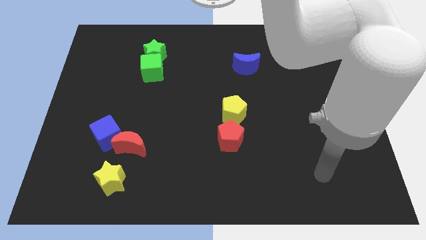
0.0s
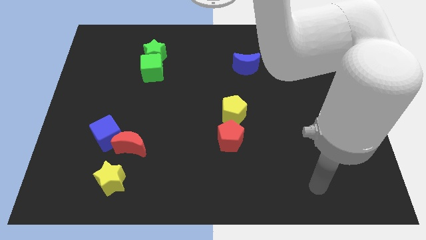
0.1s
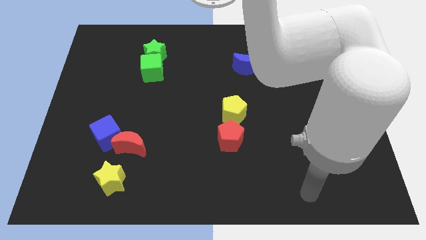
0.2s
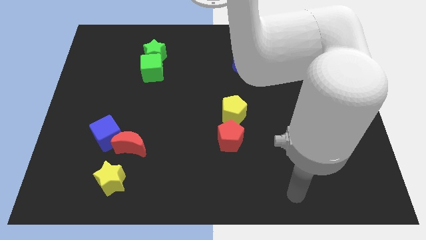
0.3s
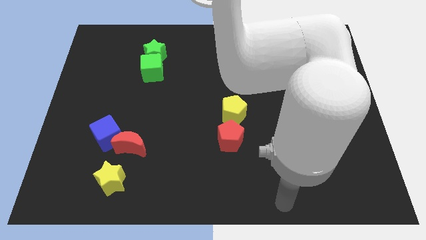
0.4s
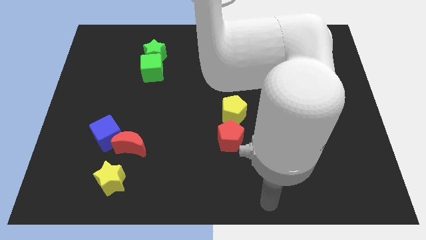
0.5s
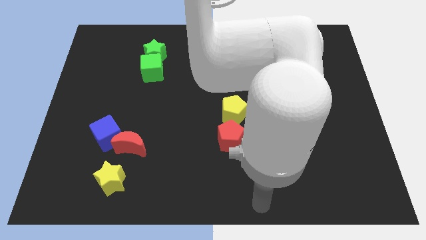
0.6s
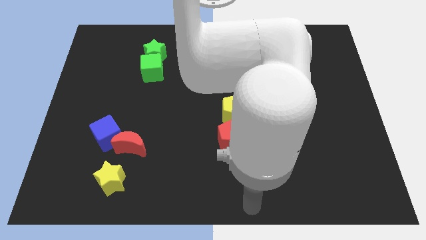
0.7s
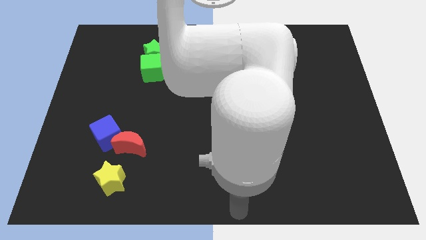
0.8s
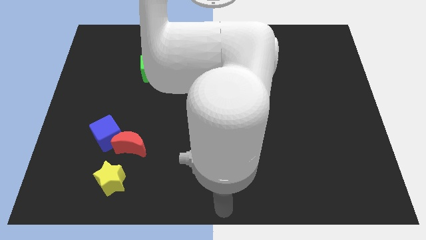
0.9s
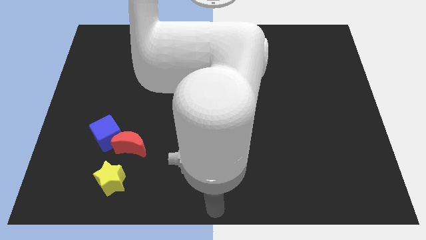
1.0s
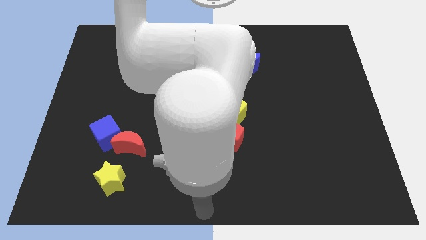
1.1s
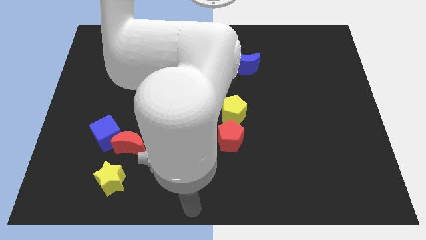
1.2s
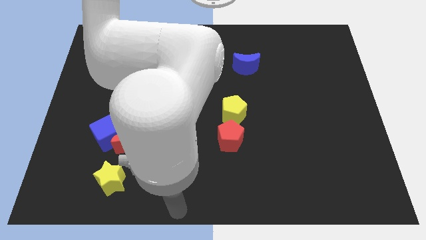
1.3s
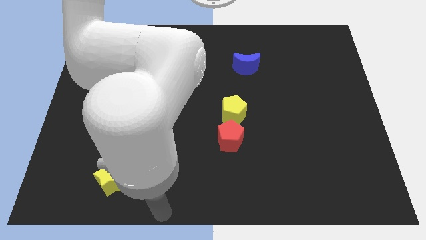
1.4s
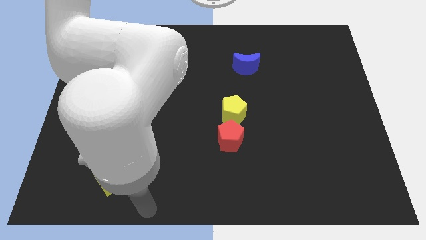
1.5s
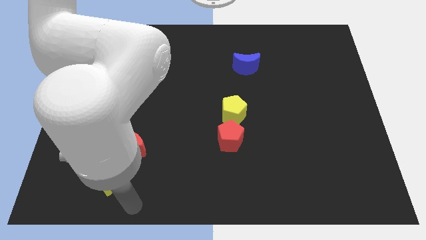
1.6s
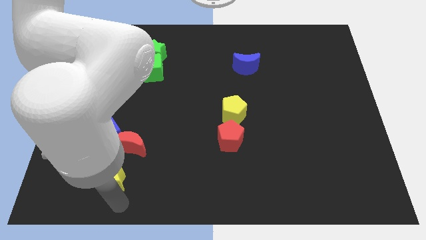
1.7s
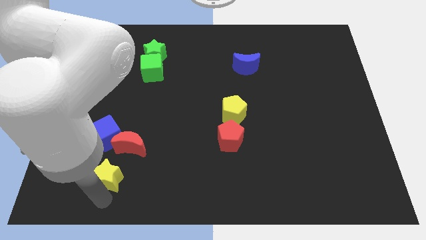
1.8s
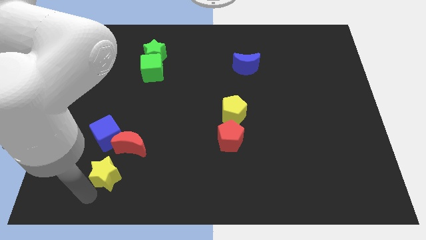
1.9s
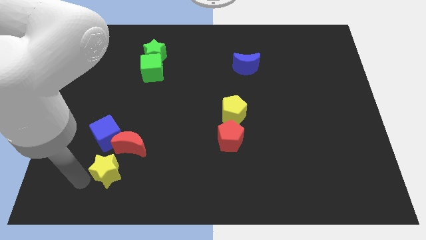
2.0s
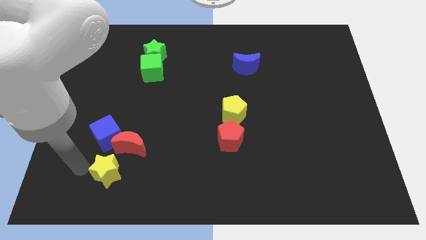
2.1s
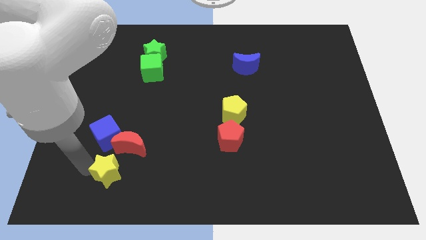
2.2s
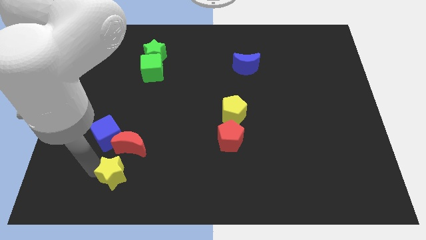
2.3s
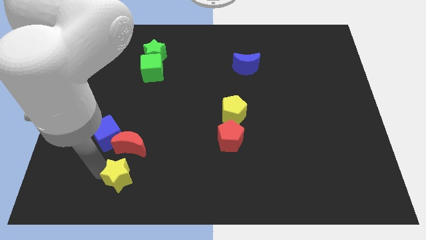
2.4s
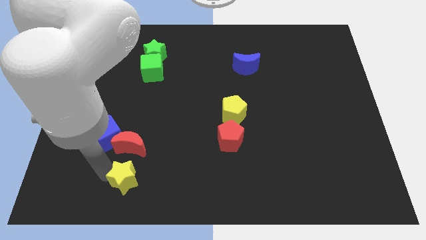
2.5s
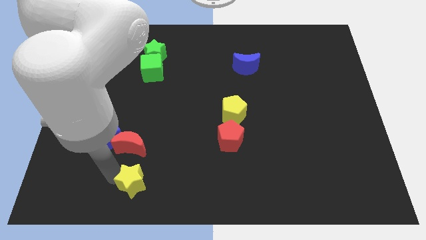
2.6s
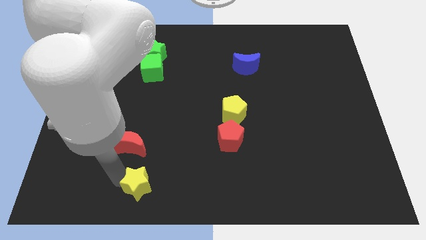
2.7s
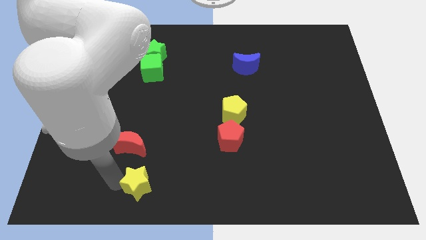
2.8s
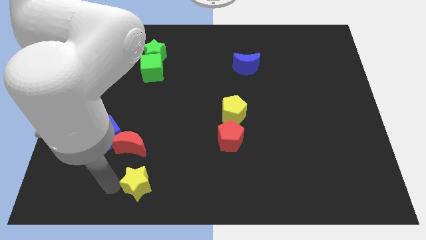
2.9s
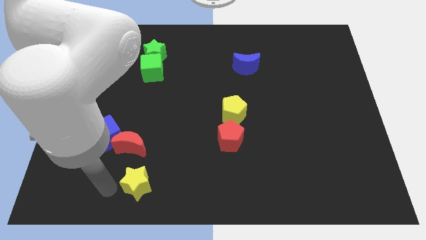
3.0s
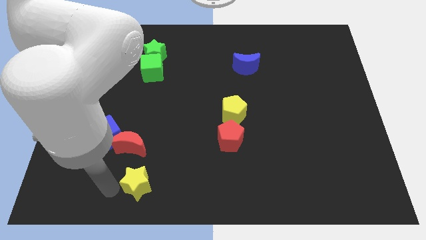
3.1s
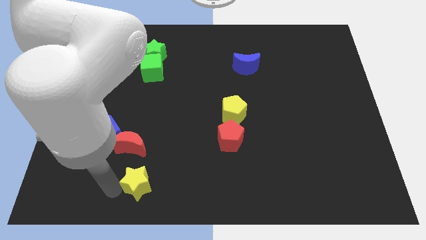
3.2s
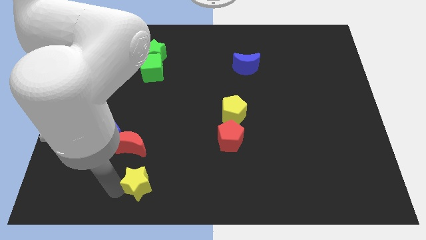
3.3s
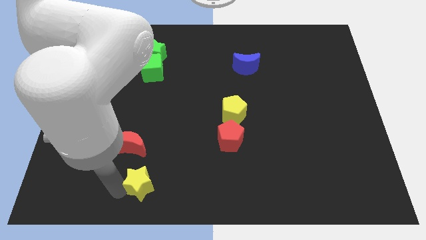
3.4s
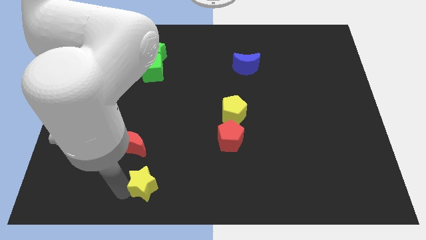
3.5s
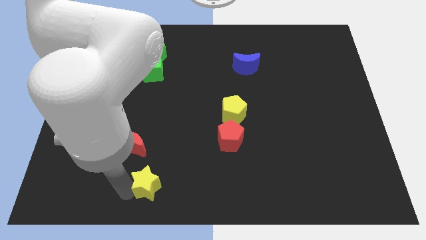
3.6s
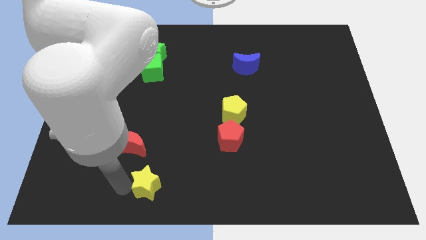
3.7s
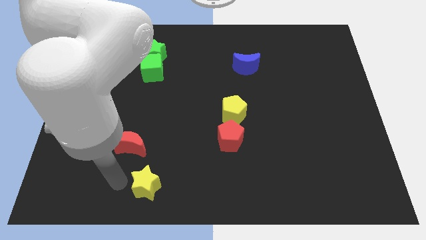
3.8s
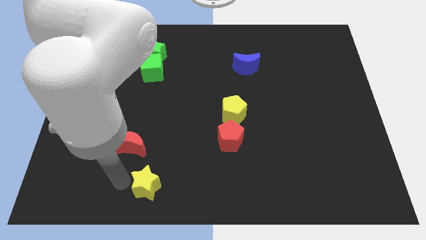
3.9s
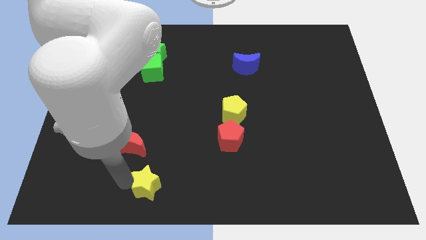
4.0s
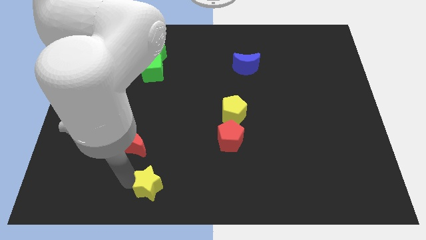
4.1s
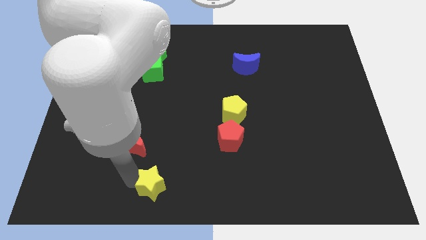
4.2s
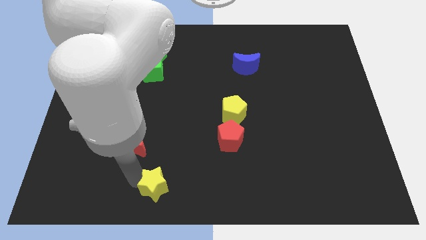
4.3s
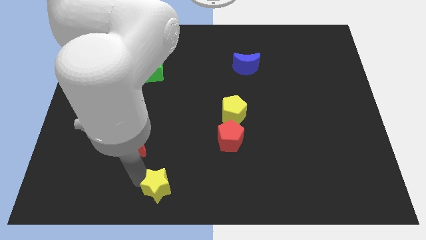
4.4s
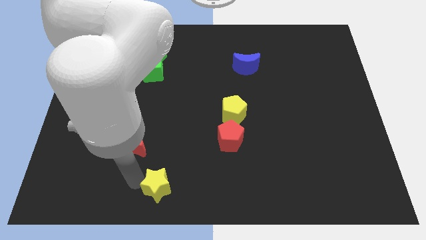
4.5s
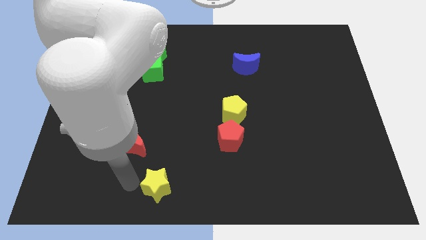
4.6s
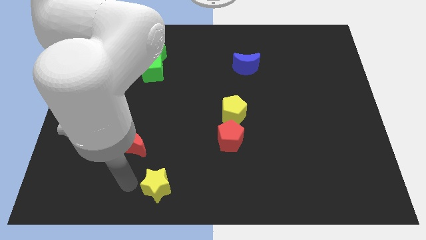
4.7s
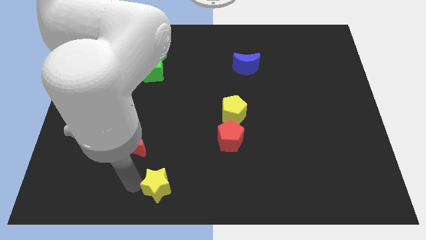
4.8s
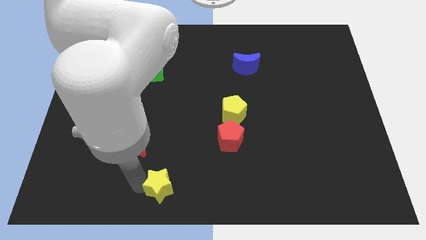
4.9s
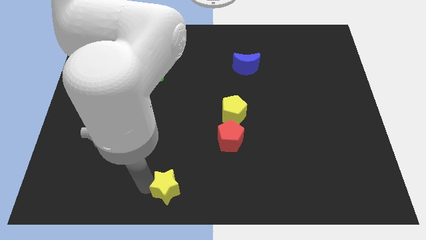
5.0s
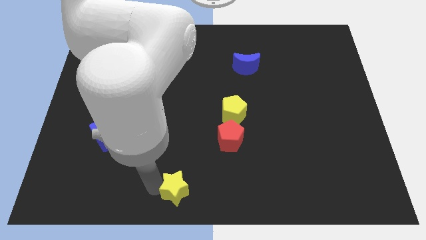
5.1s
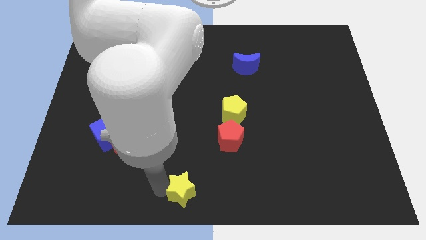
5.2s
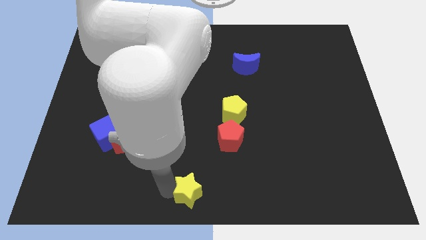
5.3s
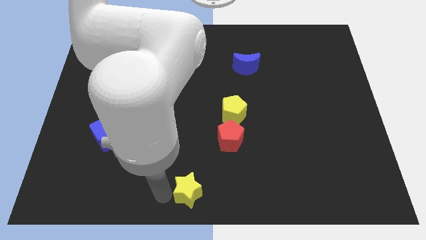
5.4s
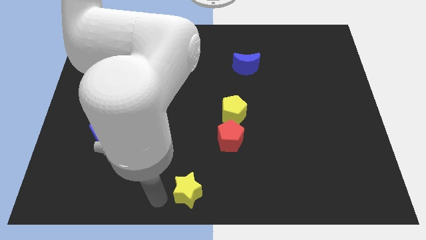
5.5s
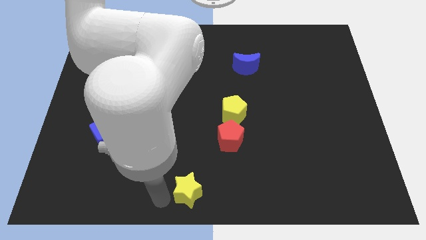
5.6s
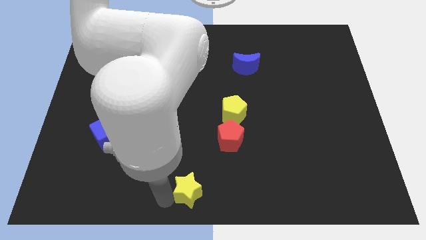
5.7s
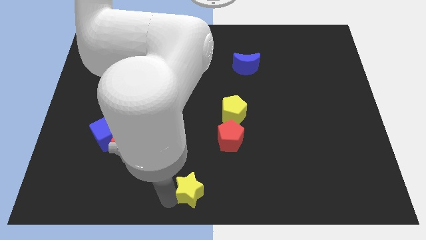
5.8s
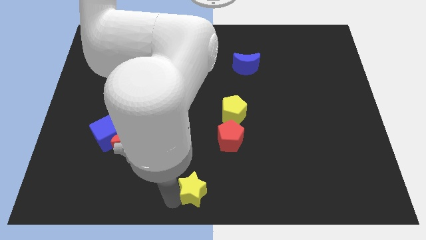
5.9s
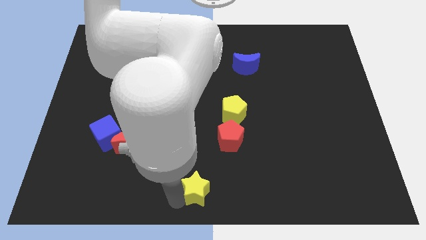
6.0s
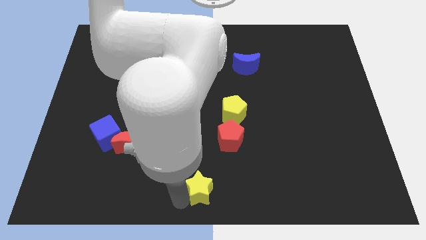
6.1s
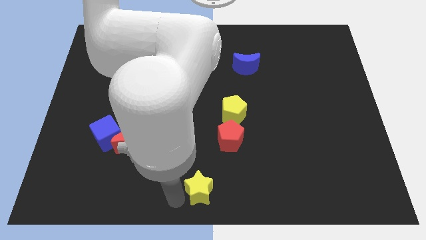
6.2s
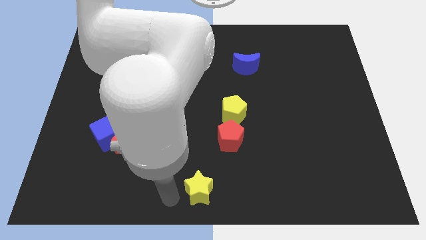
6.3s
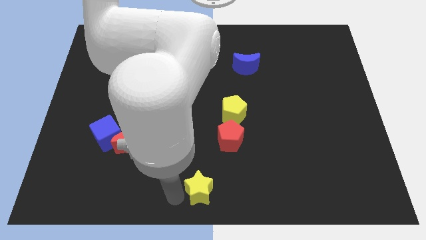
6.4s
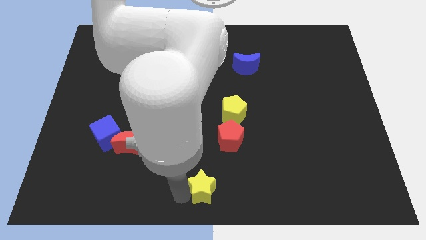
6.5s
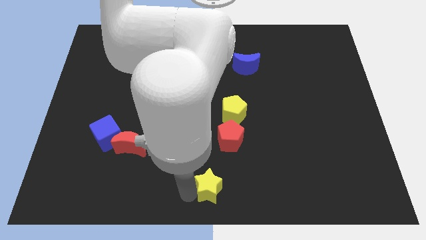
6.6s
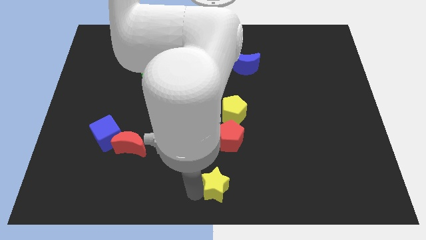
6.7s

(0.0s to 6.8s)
push the yellow star to the right

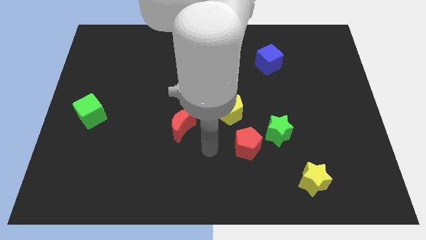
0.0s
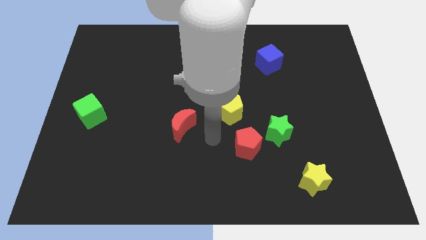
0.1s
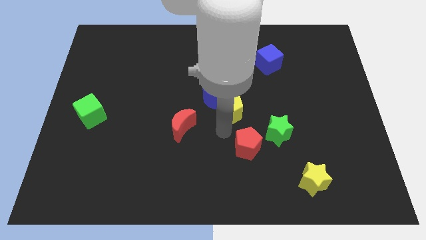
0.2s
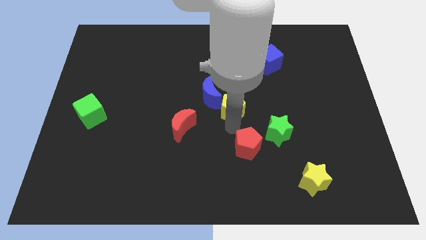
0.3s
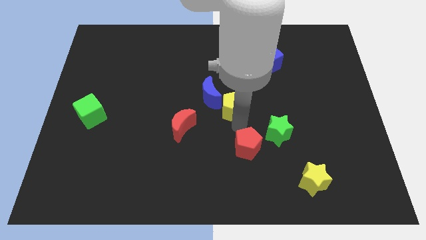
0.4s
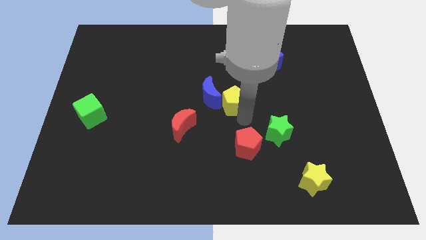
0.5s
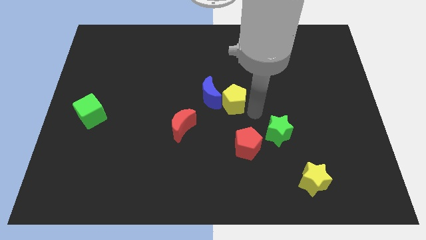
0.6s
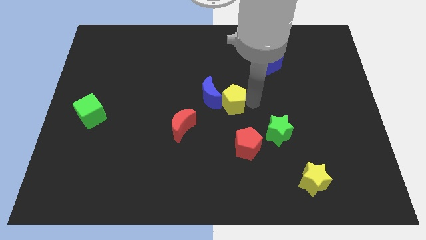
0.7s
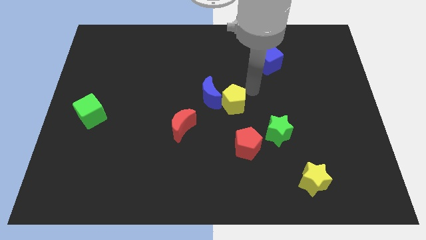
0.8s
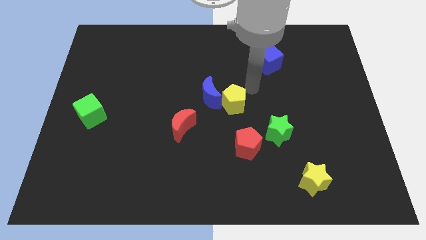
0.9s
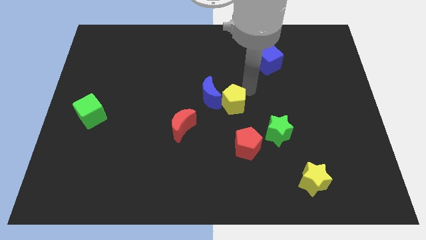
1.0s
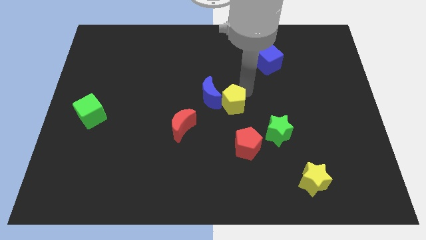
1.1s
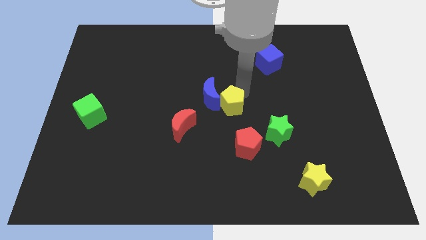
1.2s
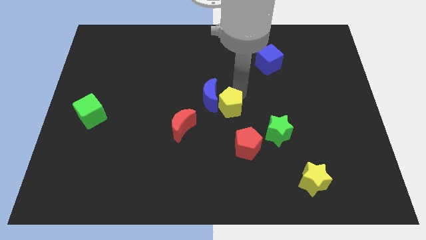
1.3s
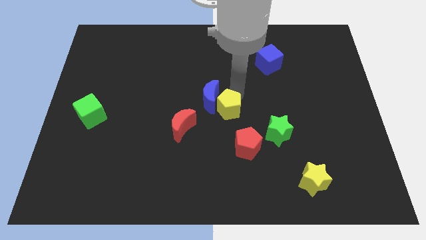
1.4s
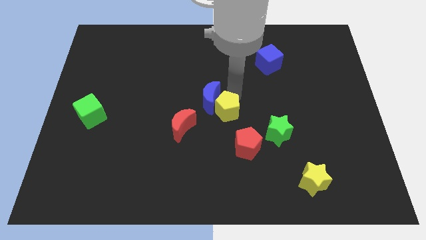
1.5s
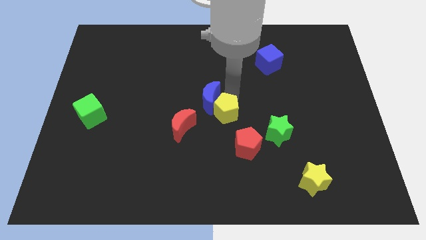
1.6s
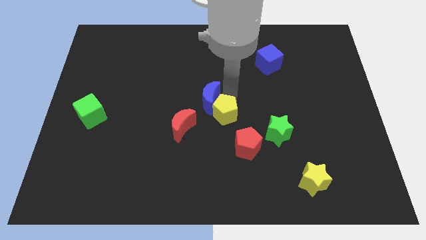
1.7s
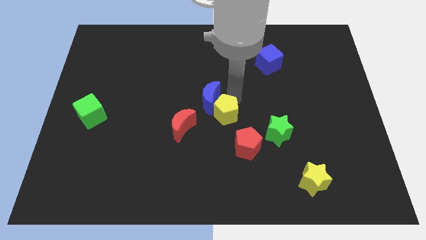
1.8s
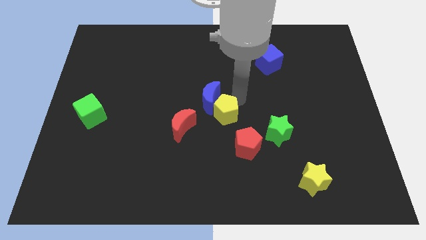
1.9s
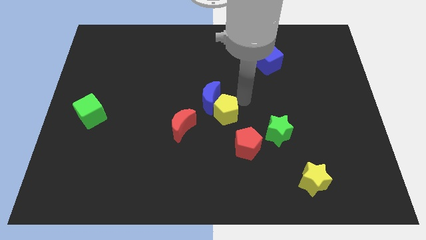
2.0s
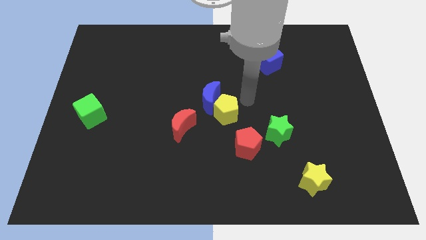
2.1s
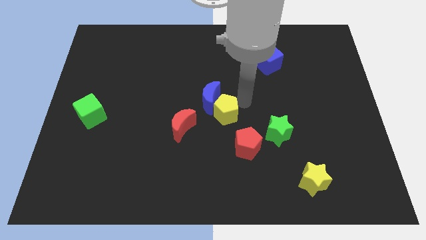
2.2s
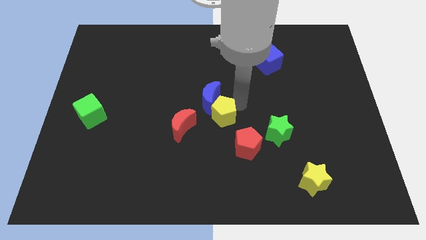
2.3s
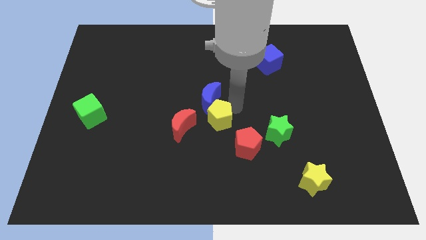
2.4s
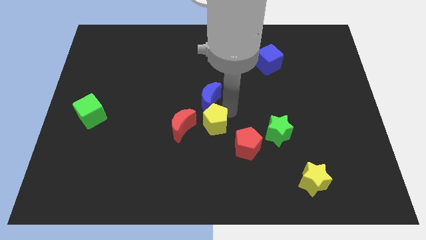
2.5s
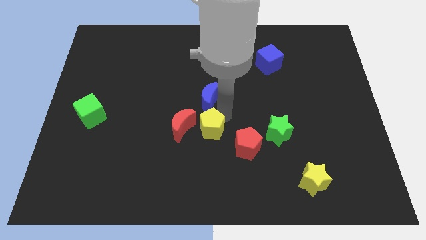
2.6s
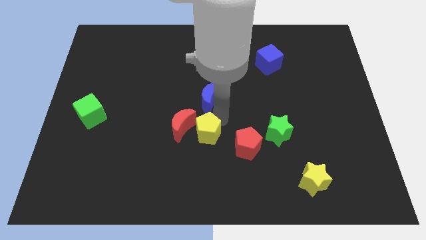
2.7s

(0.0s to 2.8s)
slightly move the yellow pentagon down and to the left diagonally
